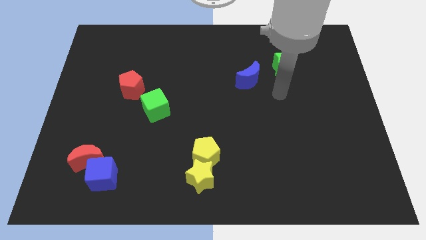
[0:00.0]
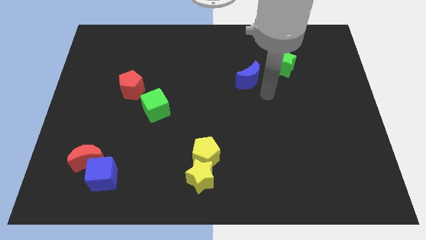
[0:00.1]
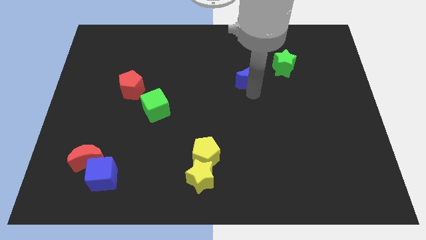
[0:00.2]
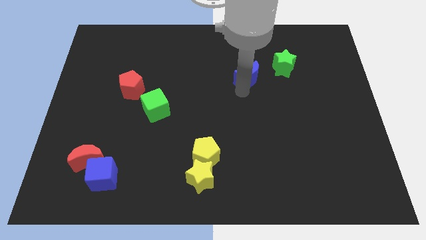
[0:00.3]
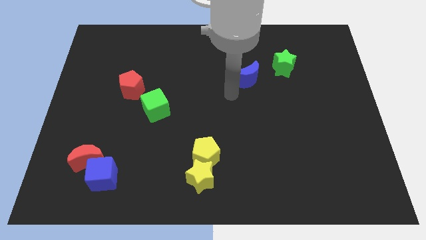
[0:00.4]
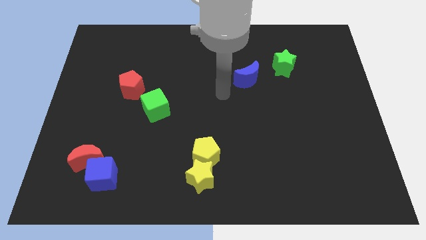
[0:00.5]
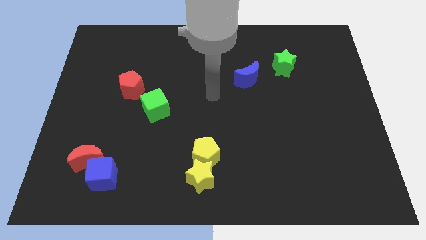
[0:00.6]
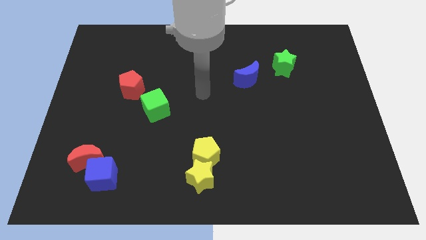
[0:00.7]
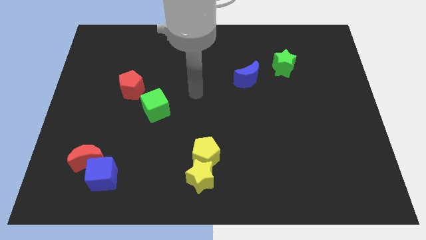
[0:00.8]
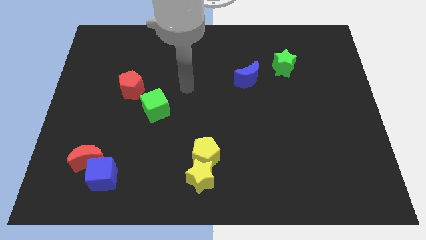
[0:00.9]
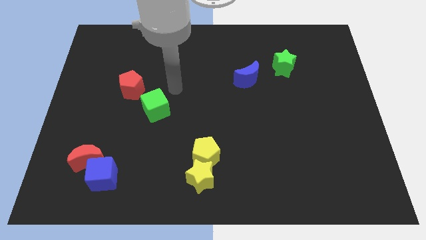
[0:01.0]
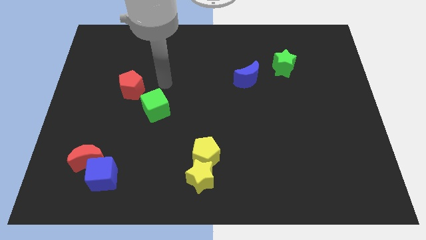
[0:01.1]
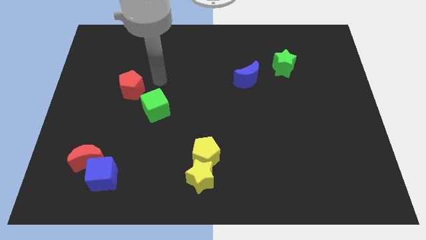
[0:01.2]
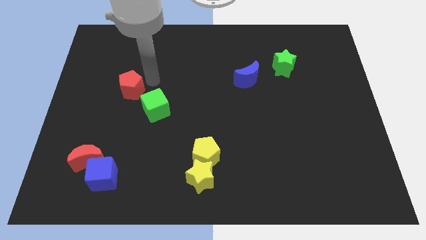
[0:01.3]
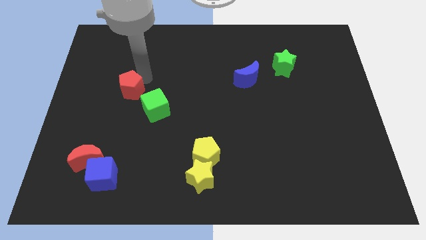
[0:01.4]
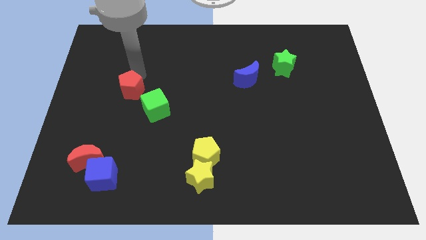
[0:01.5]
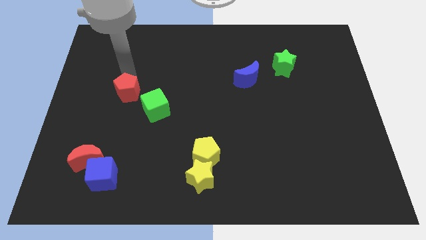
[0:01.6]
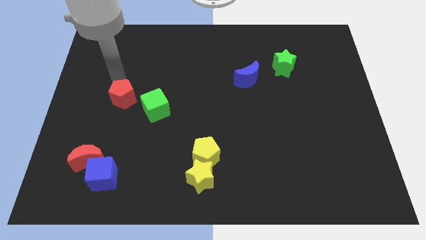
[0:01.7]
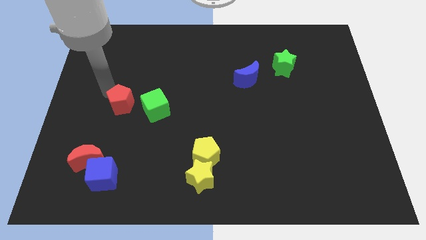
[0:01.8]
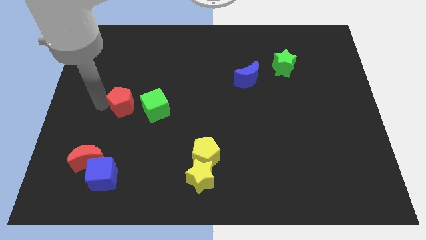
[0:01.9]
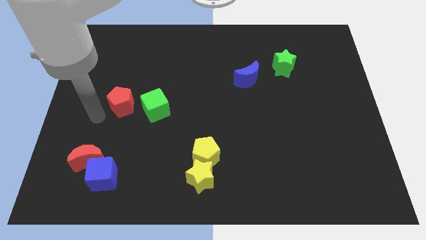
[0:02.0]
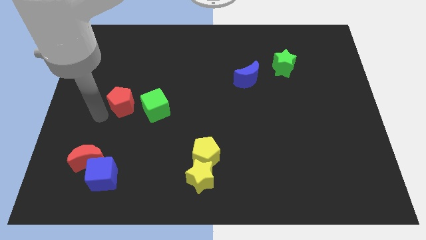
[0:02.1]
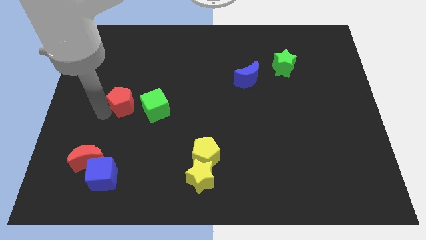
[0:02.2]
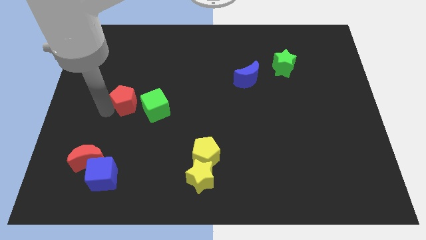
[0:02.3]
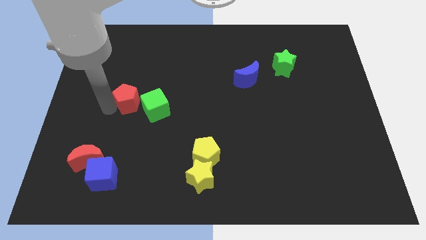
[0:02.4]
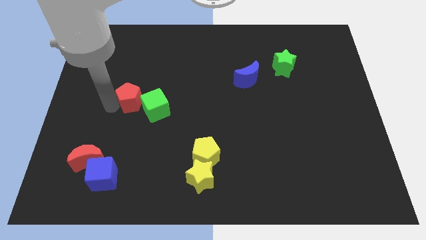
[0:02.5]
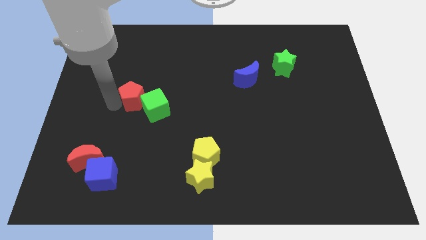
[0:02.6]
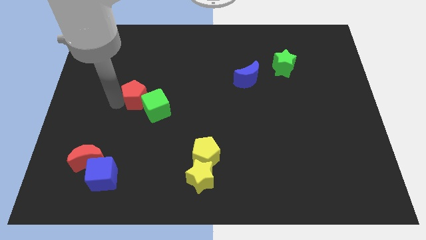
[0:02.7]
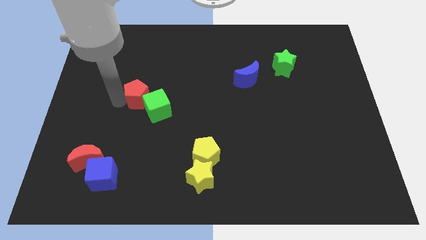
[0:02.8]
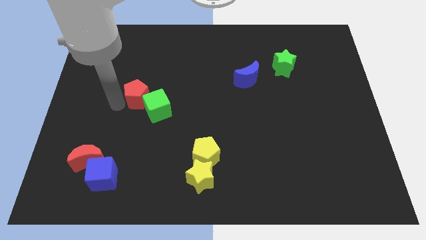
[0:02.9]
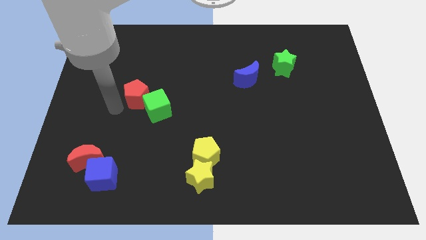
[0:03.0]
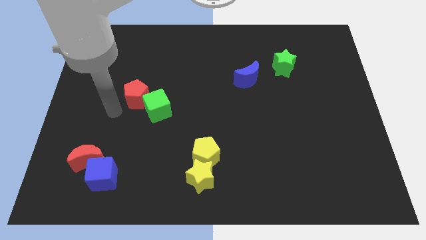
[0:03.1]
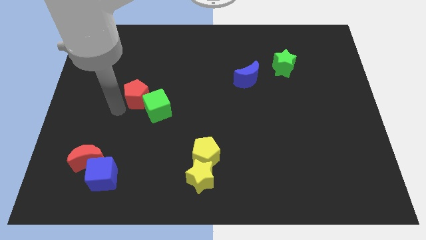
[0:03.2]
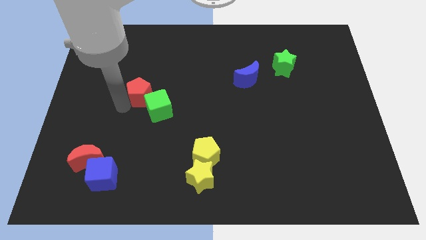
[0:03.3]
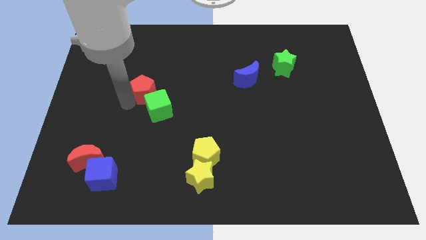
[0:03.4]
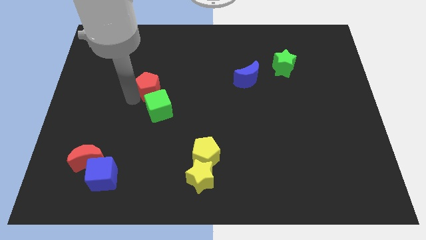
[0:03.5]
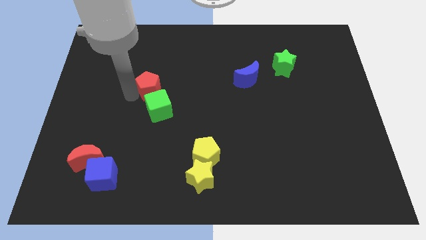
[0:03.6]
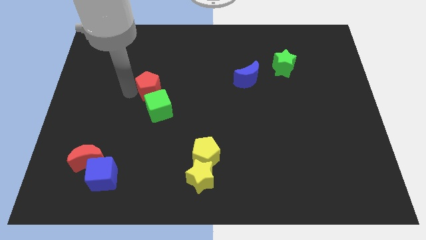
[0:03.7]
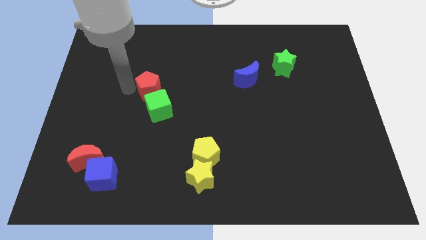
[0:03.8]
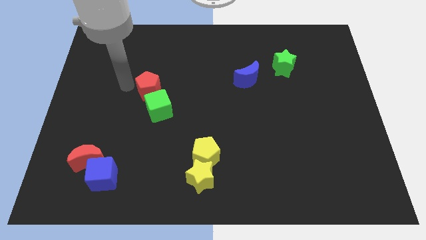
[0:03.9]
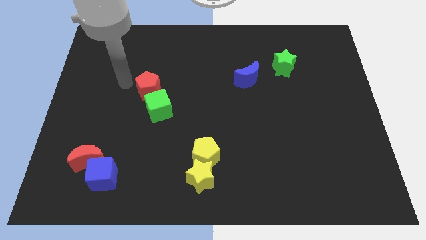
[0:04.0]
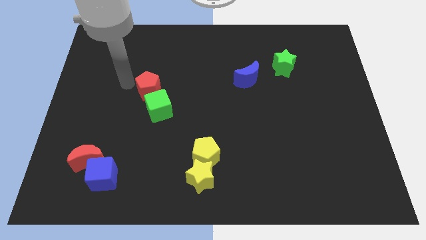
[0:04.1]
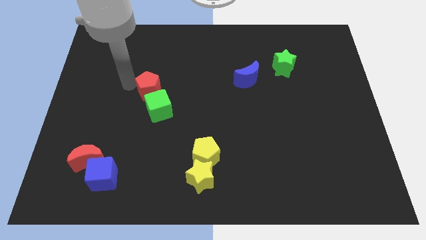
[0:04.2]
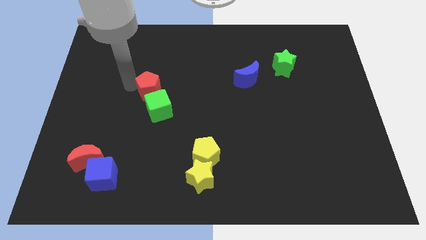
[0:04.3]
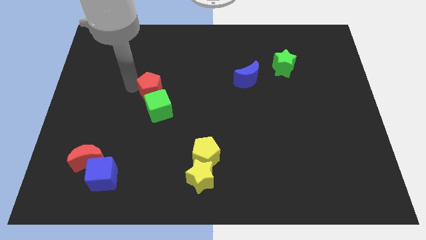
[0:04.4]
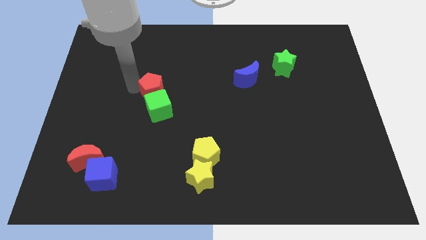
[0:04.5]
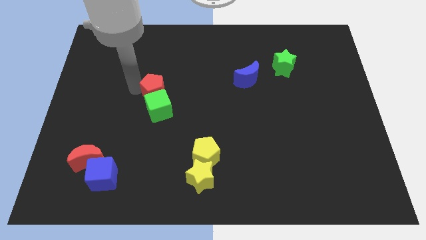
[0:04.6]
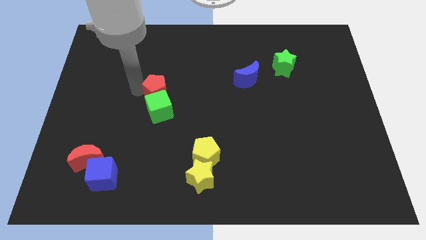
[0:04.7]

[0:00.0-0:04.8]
slide the red pentagon to the top right side of the green cube

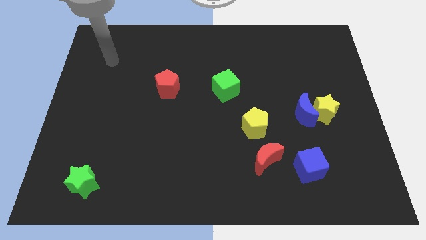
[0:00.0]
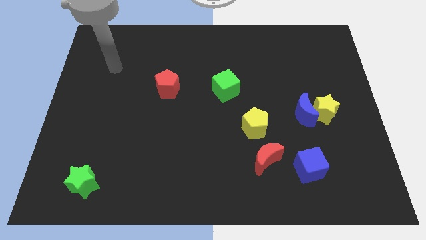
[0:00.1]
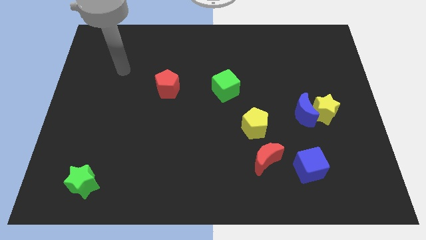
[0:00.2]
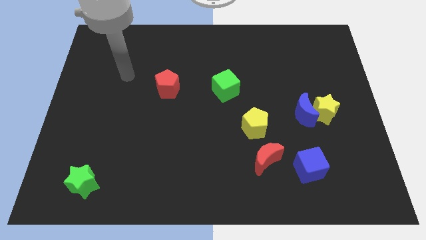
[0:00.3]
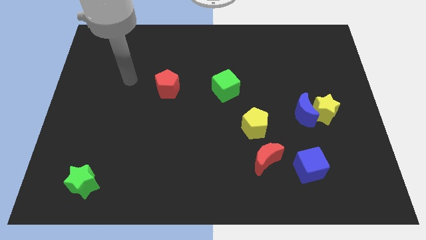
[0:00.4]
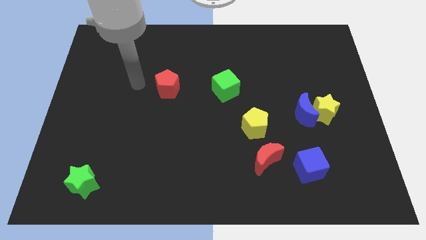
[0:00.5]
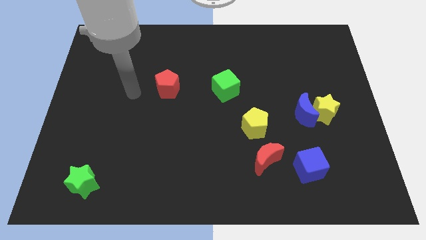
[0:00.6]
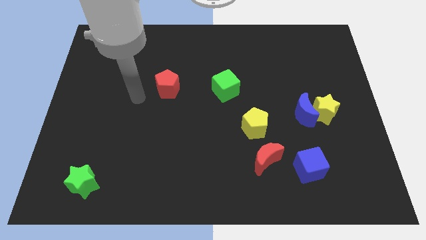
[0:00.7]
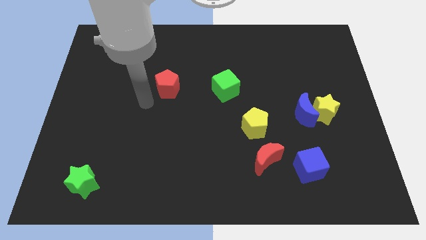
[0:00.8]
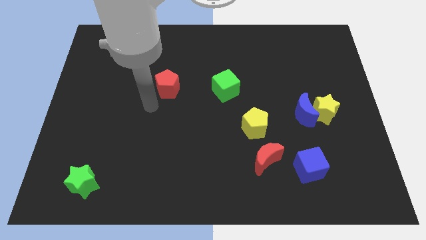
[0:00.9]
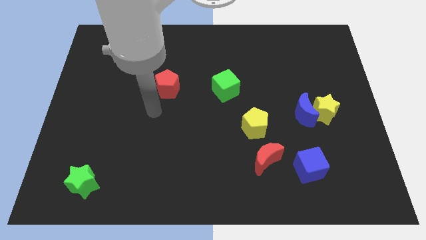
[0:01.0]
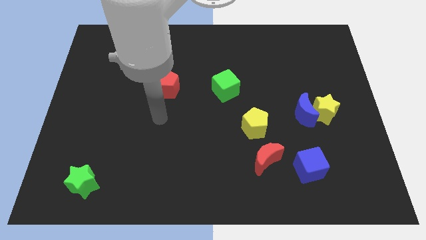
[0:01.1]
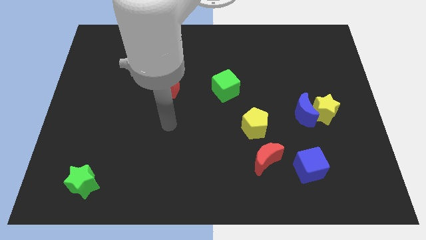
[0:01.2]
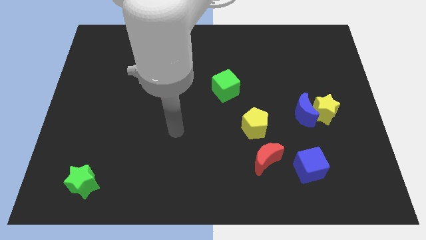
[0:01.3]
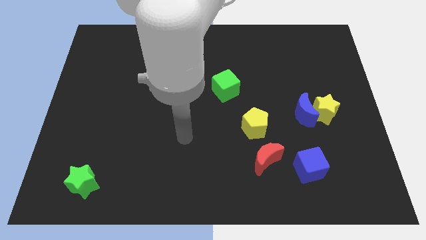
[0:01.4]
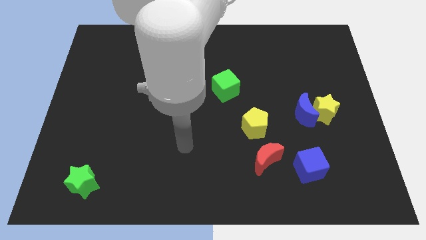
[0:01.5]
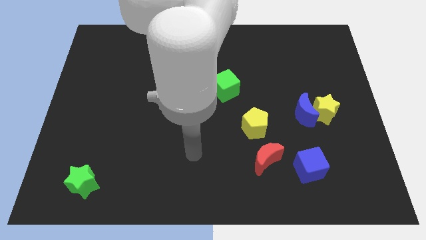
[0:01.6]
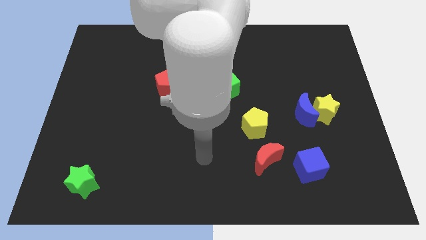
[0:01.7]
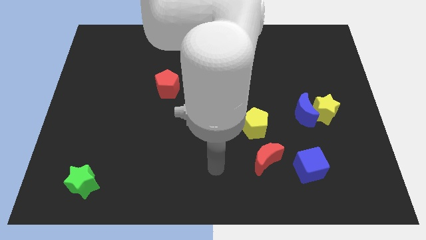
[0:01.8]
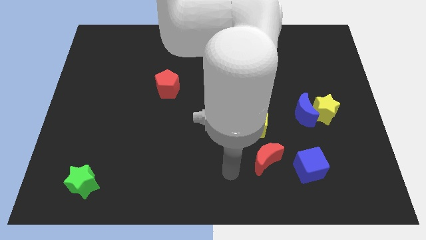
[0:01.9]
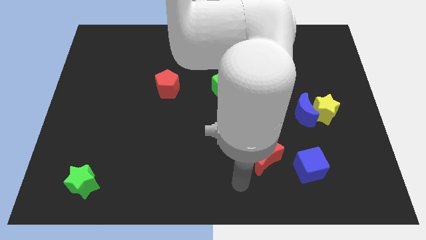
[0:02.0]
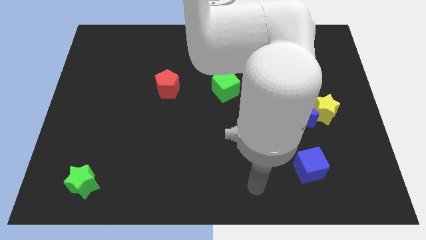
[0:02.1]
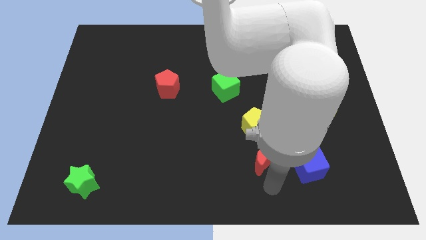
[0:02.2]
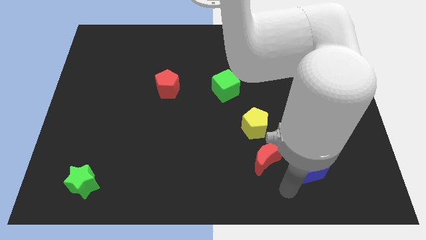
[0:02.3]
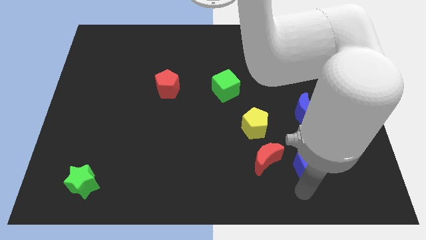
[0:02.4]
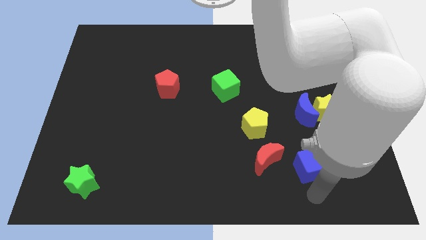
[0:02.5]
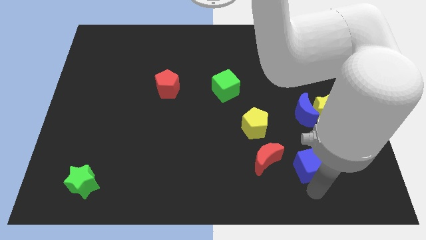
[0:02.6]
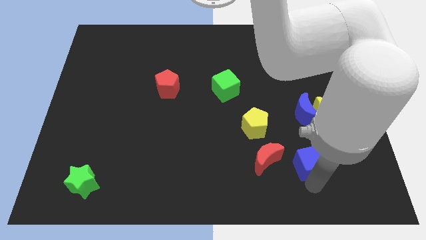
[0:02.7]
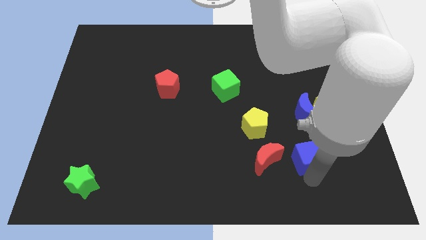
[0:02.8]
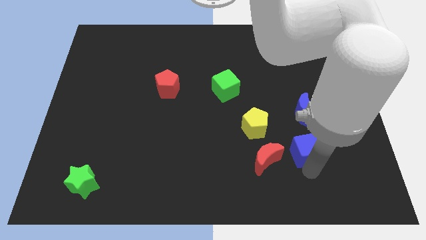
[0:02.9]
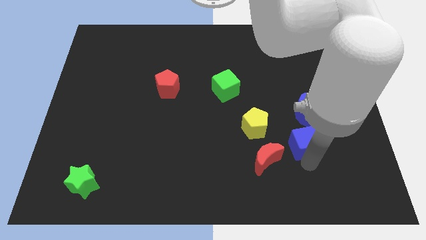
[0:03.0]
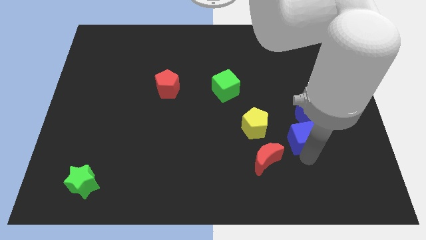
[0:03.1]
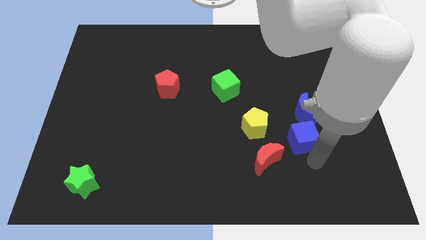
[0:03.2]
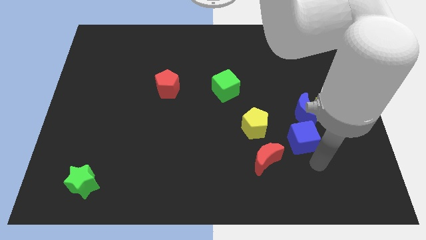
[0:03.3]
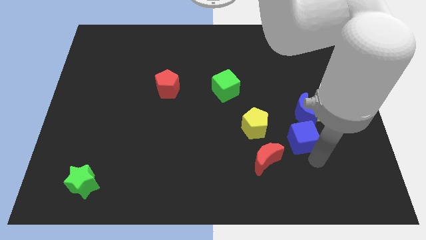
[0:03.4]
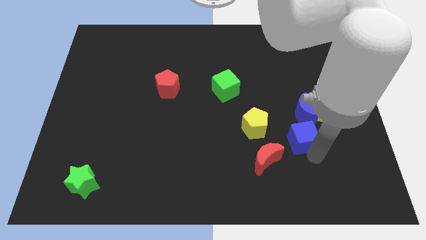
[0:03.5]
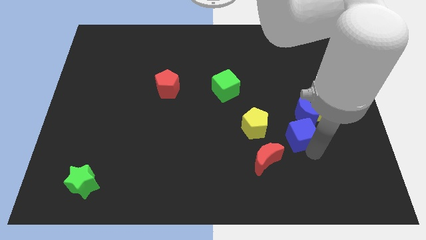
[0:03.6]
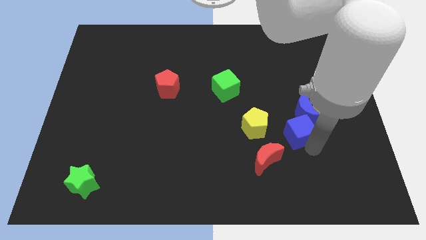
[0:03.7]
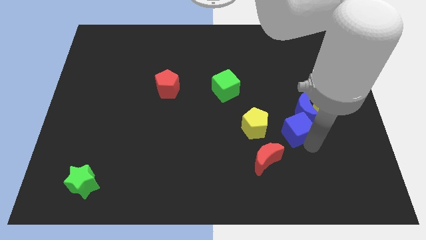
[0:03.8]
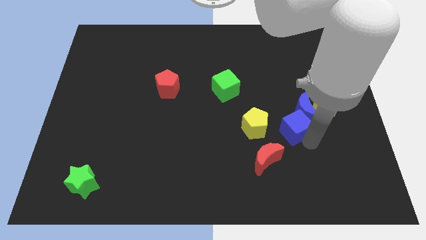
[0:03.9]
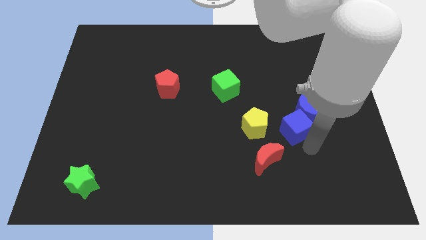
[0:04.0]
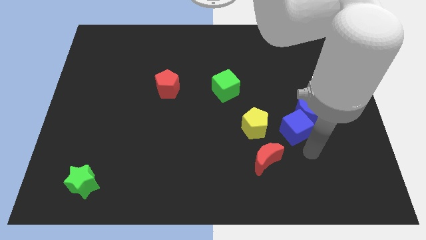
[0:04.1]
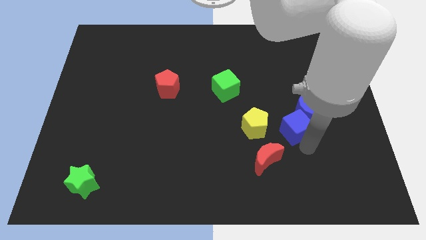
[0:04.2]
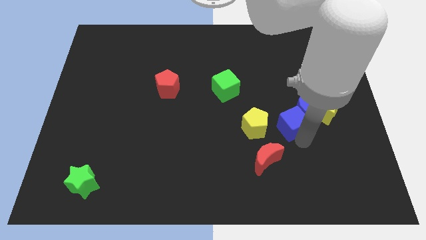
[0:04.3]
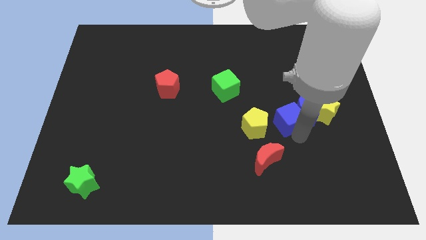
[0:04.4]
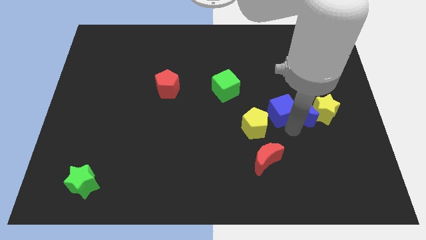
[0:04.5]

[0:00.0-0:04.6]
push the blue cube to the top left of the blue moon
